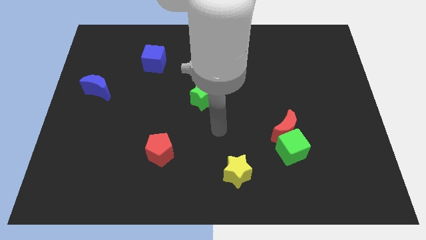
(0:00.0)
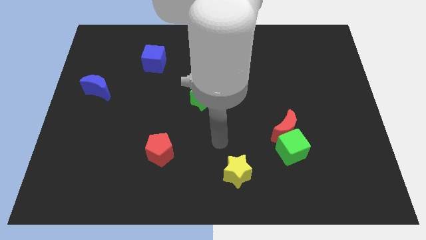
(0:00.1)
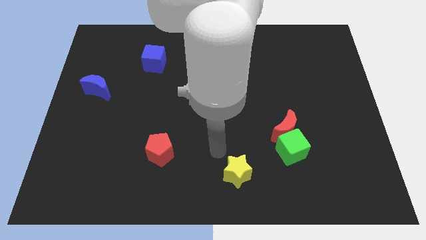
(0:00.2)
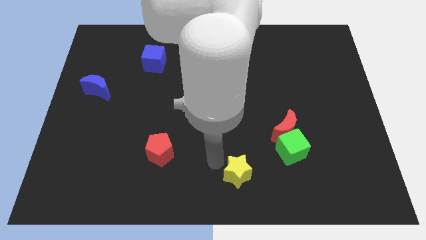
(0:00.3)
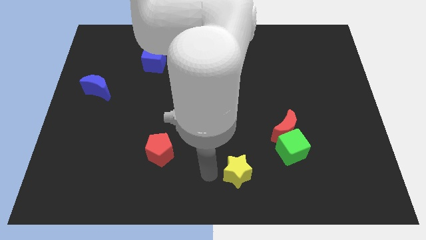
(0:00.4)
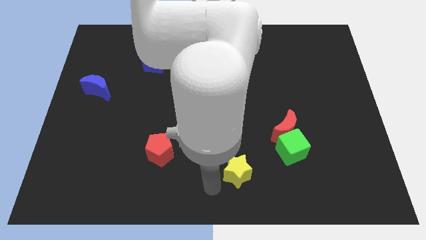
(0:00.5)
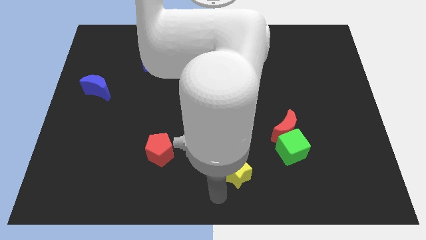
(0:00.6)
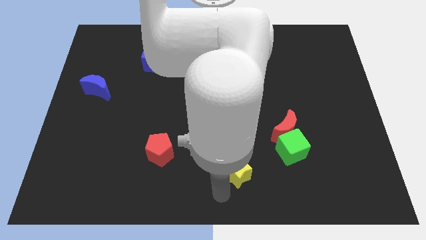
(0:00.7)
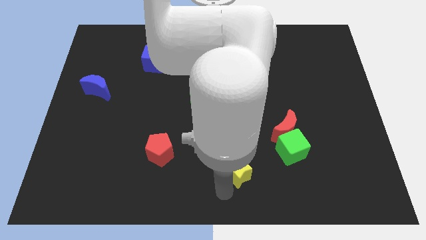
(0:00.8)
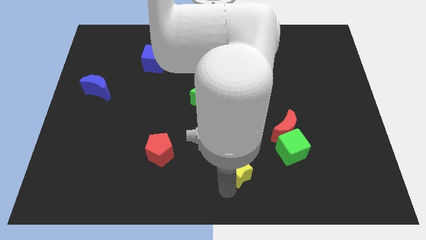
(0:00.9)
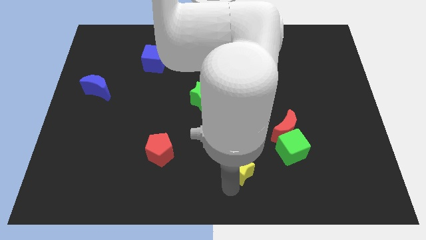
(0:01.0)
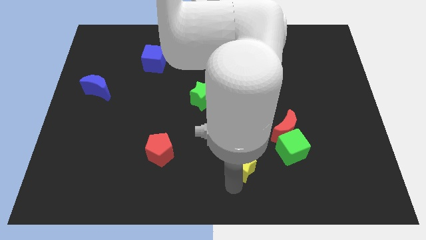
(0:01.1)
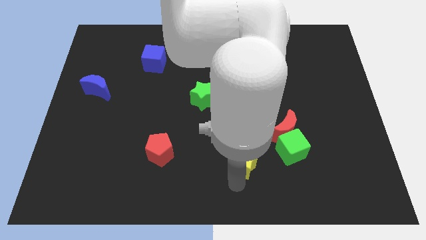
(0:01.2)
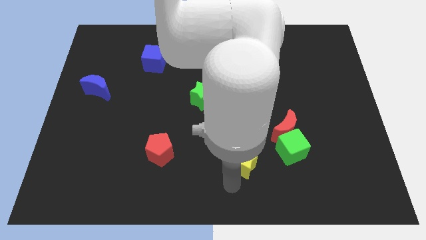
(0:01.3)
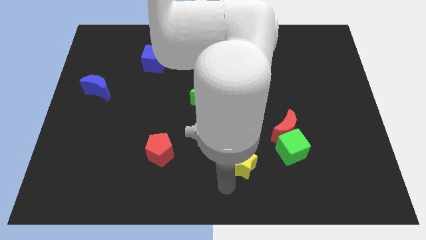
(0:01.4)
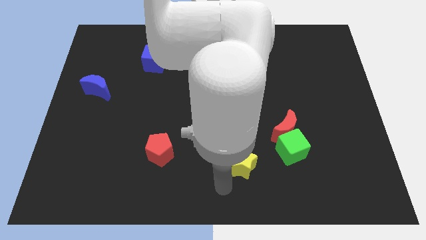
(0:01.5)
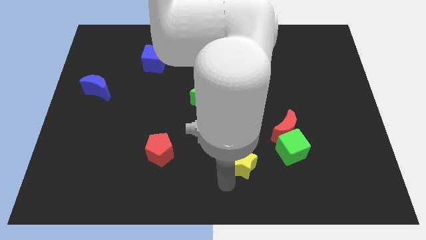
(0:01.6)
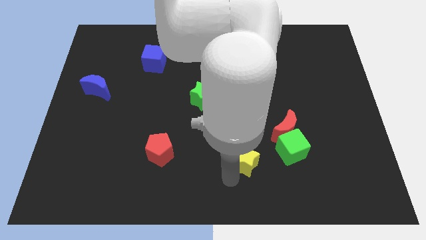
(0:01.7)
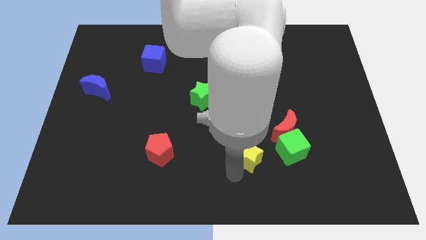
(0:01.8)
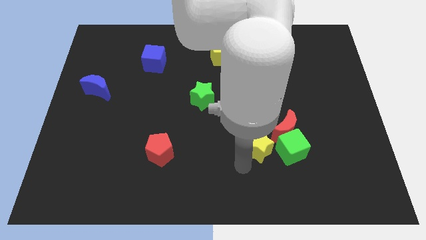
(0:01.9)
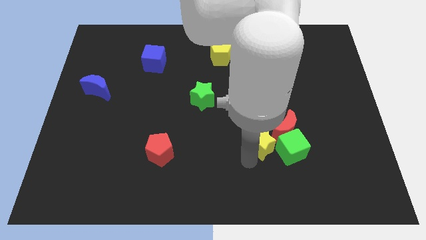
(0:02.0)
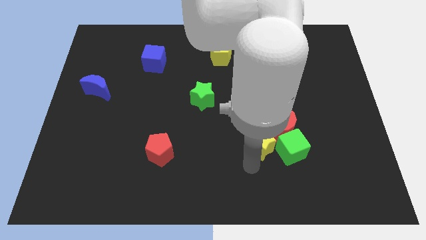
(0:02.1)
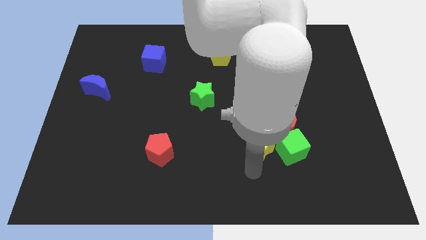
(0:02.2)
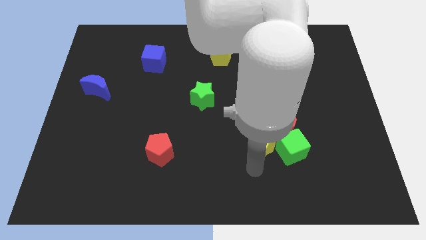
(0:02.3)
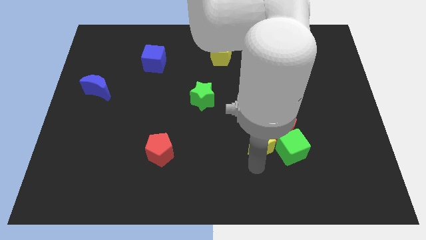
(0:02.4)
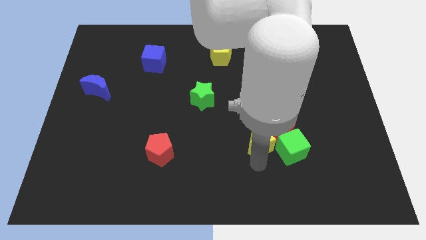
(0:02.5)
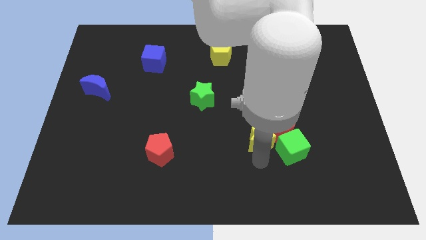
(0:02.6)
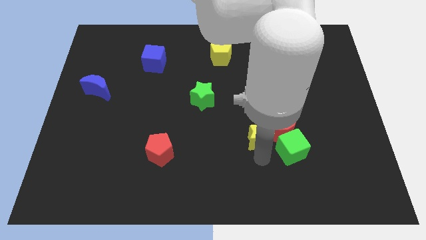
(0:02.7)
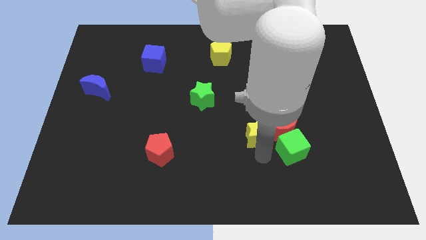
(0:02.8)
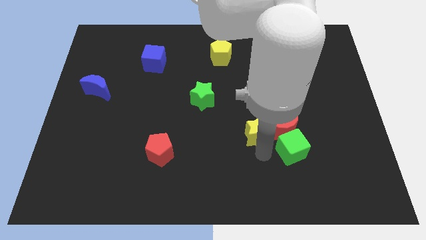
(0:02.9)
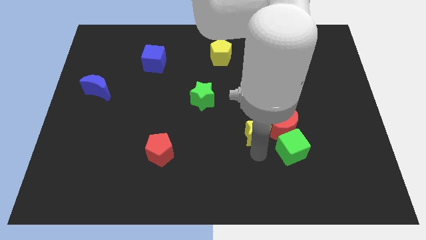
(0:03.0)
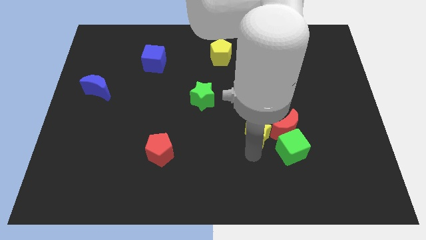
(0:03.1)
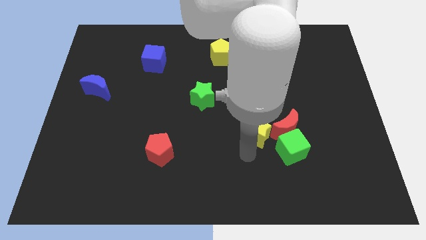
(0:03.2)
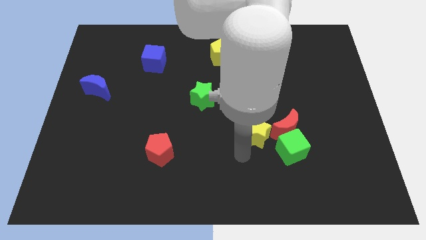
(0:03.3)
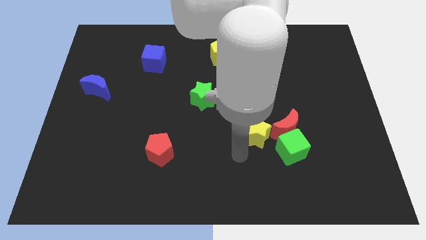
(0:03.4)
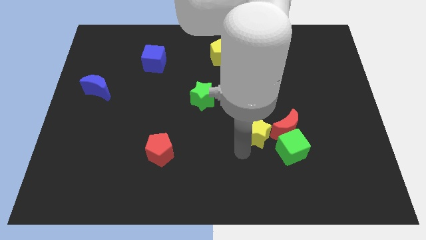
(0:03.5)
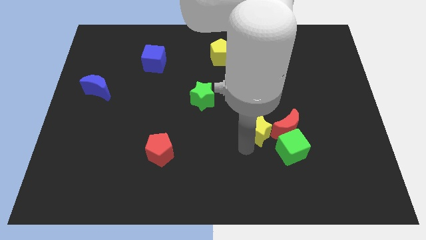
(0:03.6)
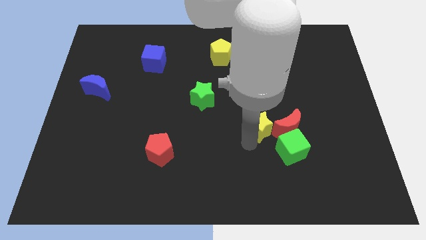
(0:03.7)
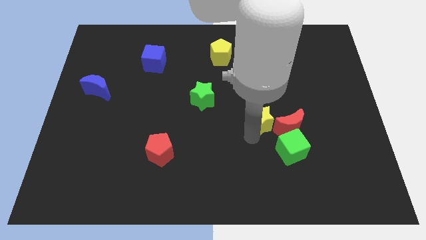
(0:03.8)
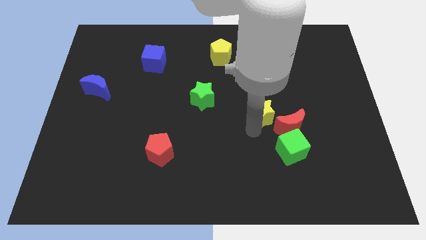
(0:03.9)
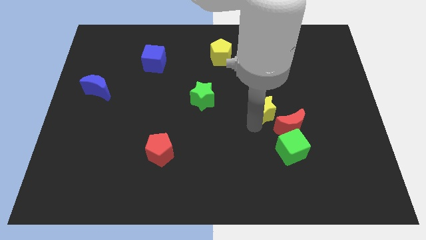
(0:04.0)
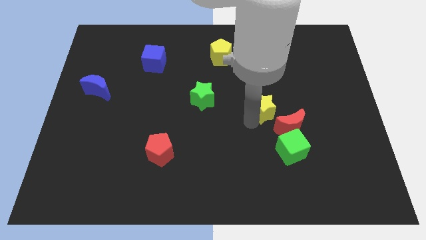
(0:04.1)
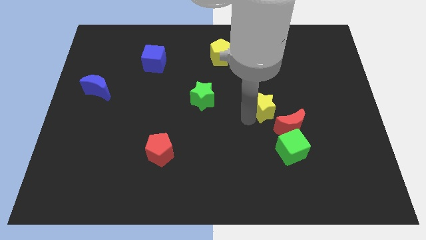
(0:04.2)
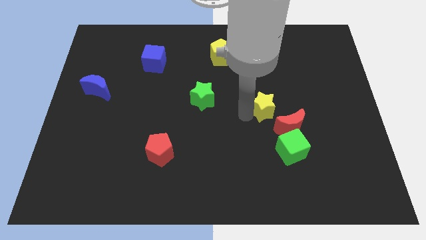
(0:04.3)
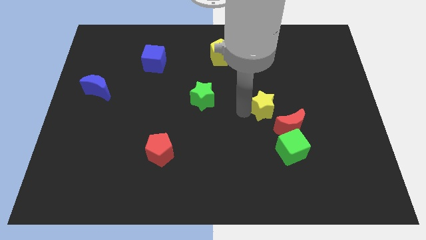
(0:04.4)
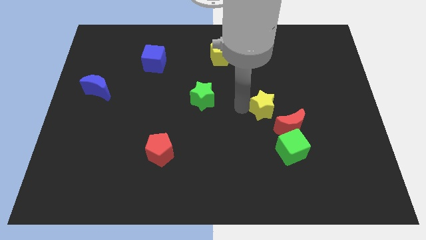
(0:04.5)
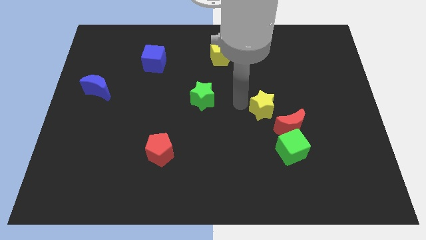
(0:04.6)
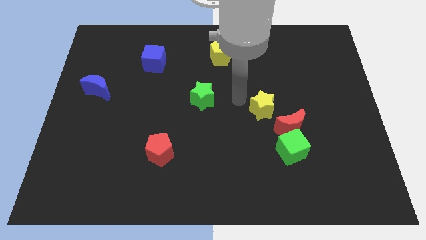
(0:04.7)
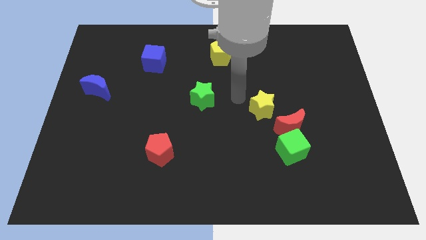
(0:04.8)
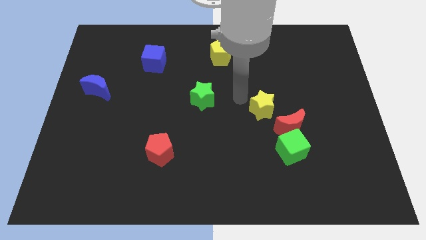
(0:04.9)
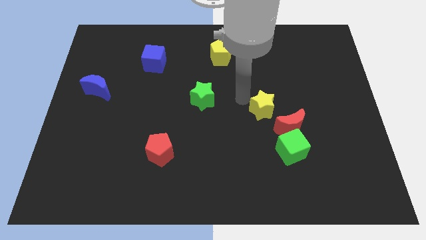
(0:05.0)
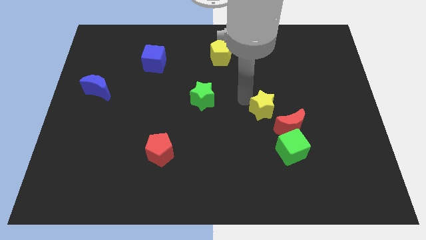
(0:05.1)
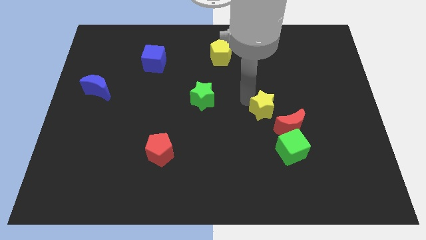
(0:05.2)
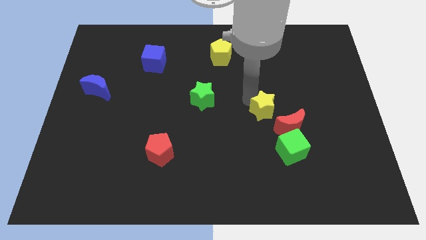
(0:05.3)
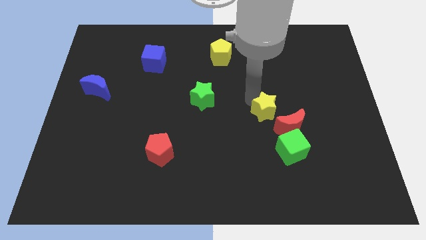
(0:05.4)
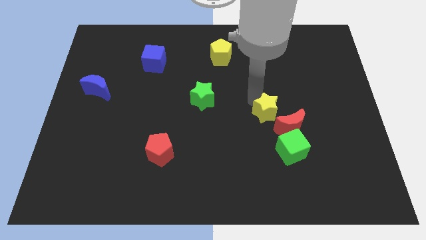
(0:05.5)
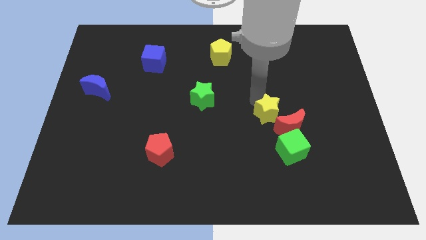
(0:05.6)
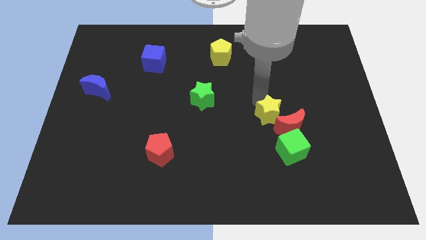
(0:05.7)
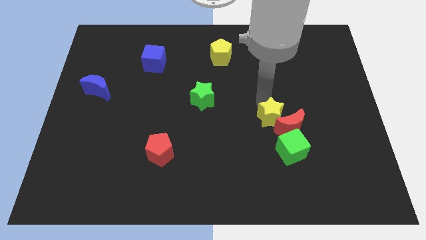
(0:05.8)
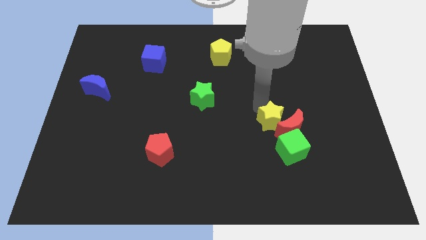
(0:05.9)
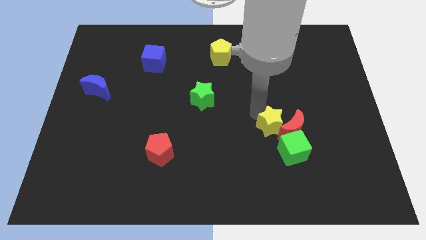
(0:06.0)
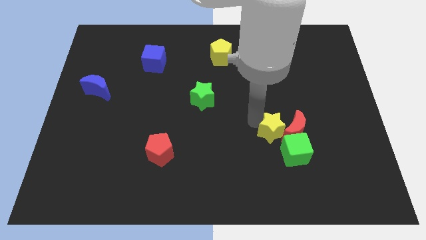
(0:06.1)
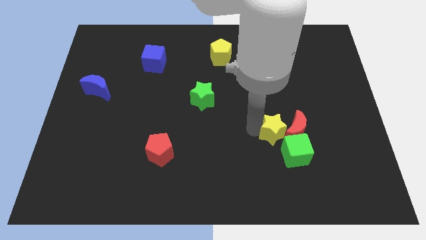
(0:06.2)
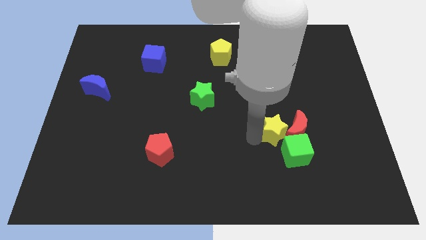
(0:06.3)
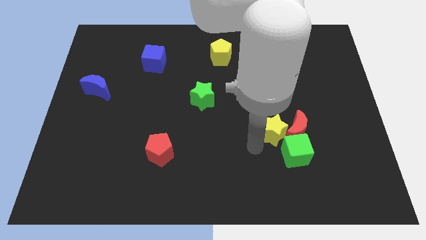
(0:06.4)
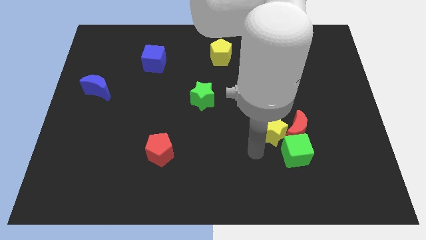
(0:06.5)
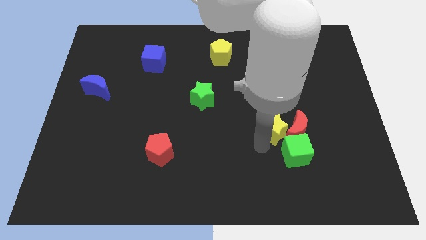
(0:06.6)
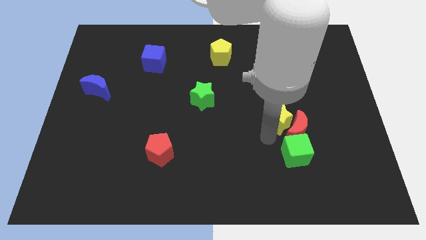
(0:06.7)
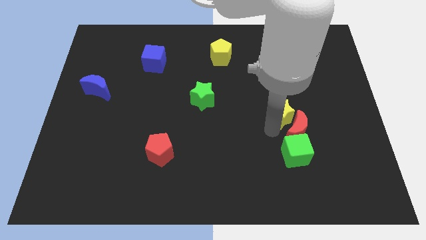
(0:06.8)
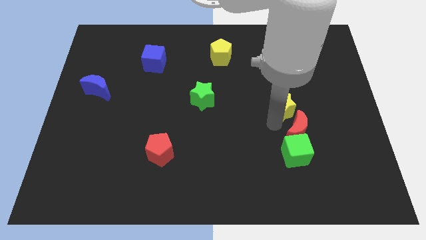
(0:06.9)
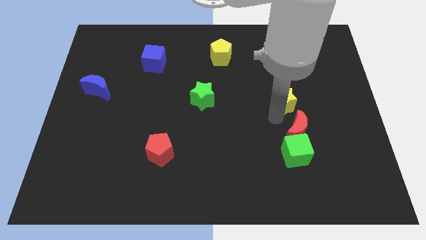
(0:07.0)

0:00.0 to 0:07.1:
slide the yellow star upwards and then right

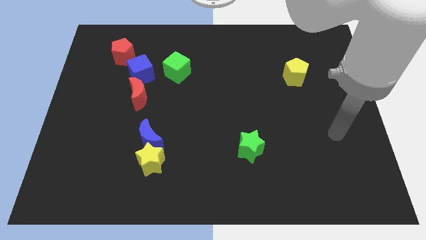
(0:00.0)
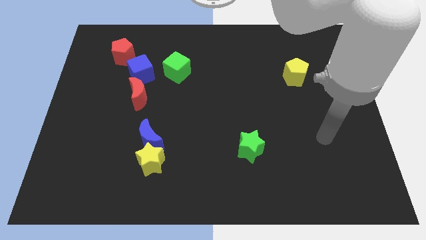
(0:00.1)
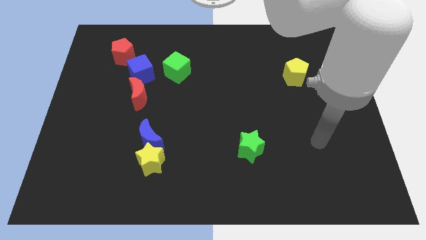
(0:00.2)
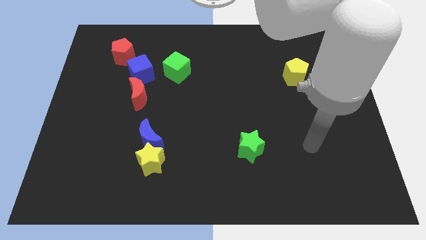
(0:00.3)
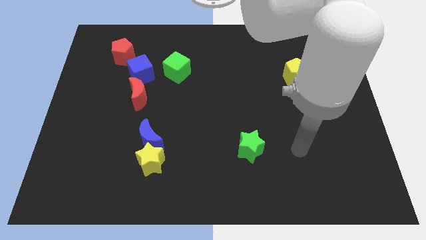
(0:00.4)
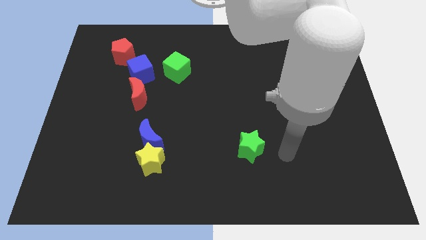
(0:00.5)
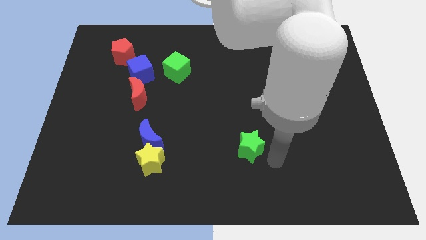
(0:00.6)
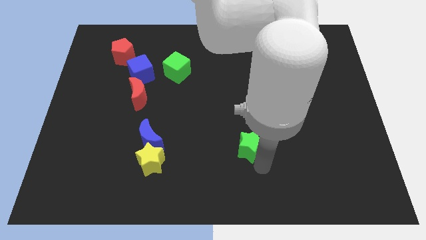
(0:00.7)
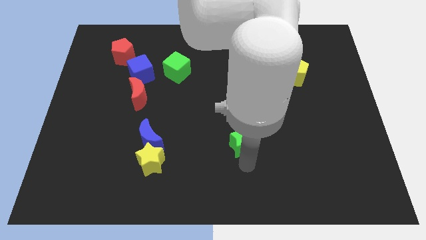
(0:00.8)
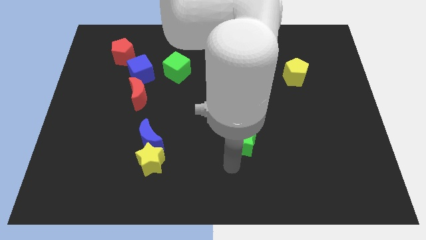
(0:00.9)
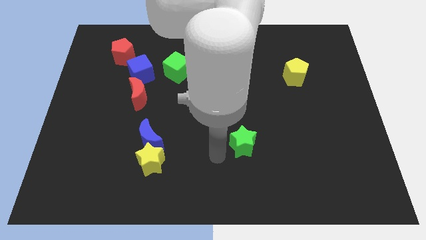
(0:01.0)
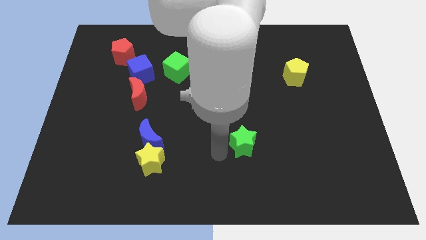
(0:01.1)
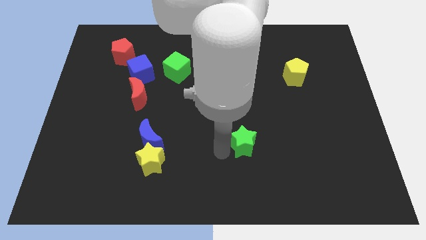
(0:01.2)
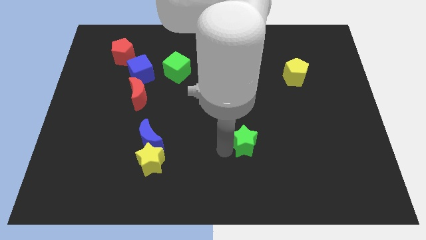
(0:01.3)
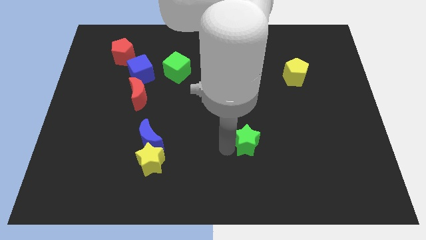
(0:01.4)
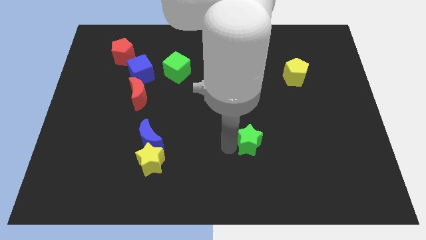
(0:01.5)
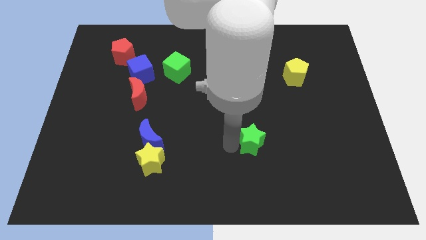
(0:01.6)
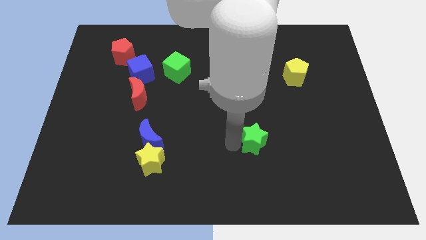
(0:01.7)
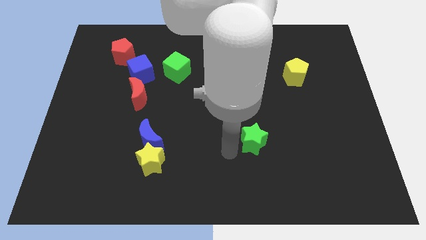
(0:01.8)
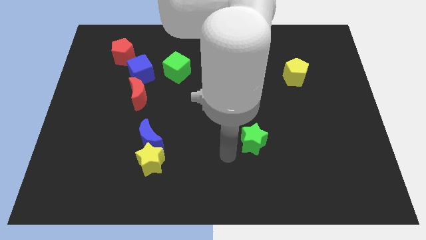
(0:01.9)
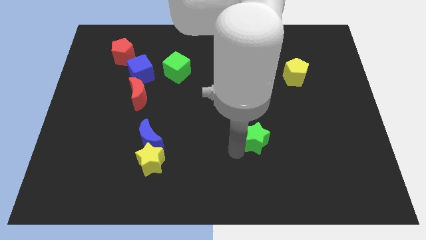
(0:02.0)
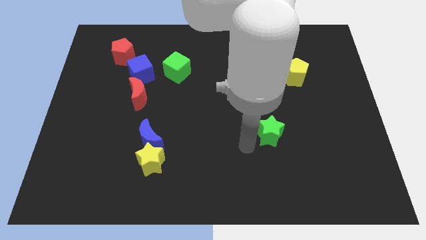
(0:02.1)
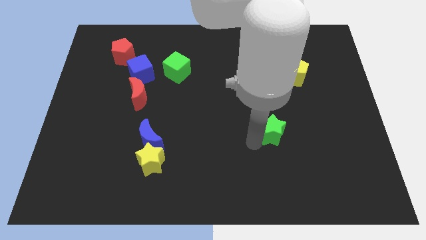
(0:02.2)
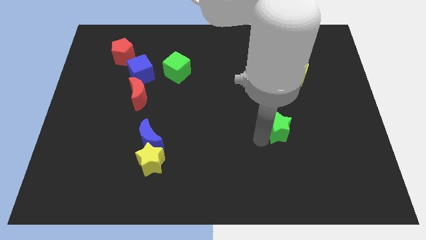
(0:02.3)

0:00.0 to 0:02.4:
slide the green star upwards and right somewhat
